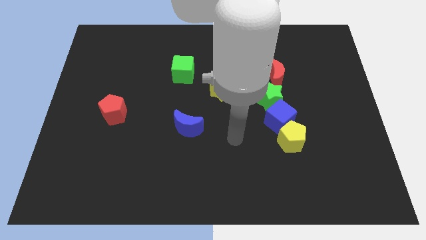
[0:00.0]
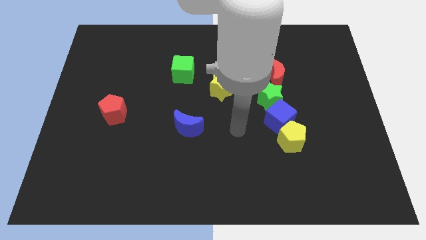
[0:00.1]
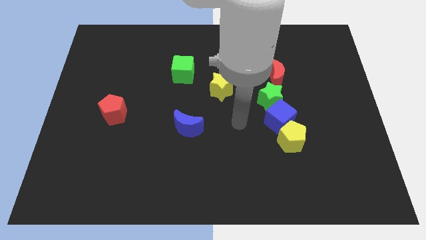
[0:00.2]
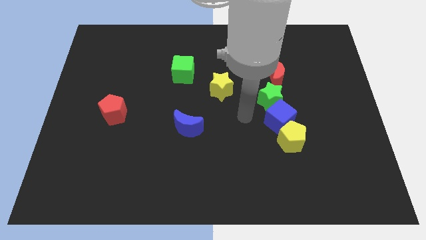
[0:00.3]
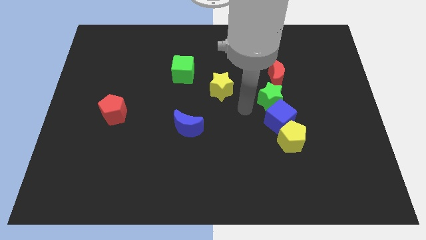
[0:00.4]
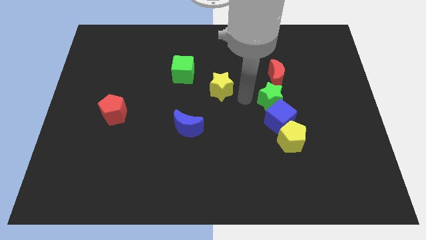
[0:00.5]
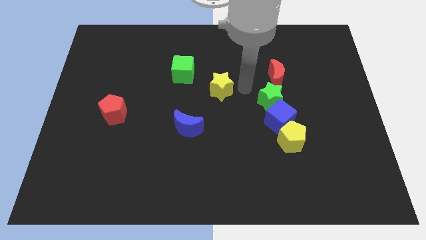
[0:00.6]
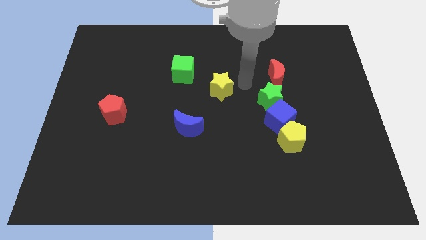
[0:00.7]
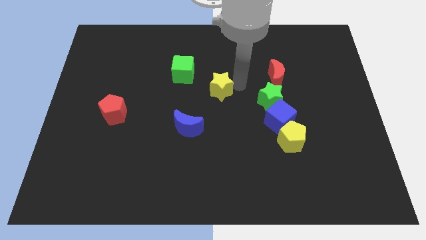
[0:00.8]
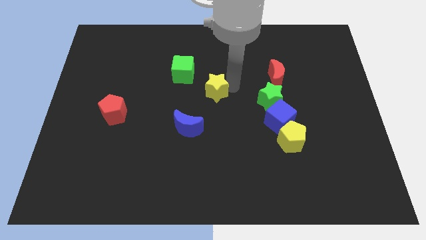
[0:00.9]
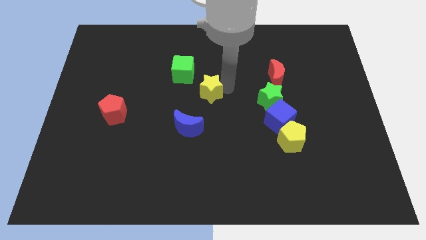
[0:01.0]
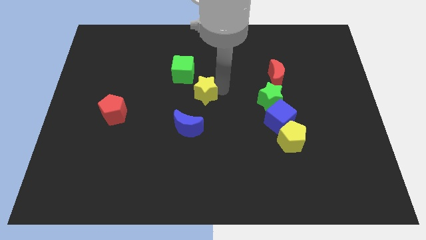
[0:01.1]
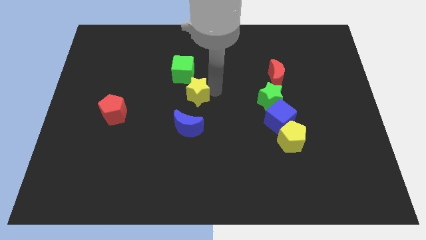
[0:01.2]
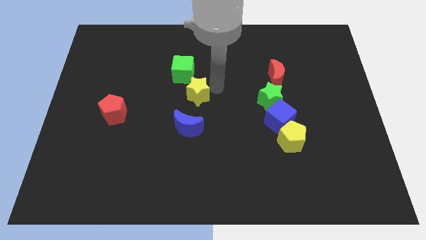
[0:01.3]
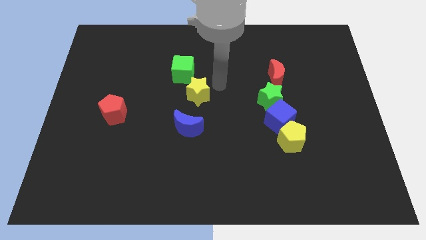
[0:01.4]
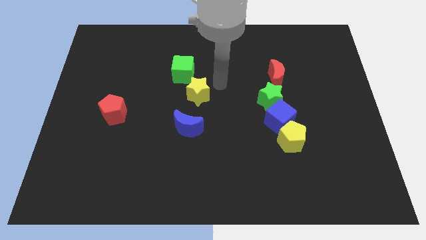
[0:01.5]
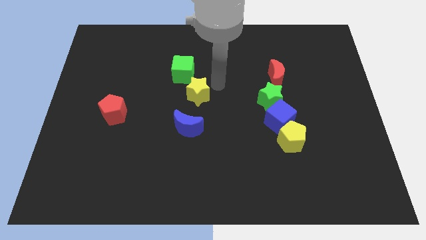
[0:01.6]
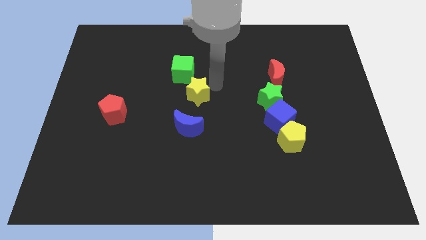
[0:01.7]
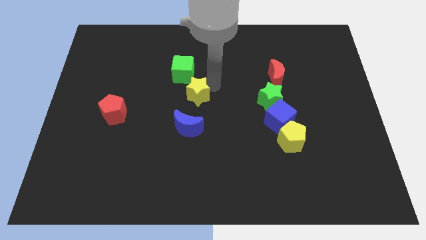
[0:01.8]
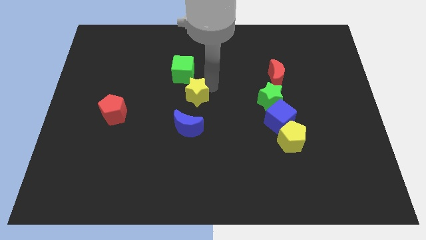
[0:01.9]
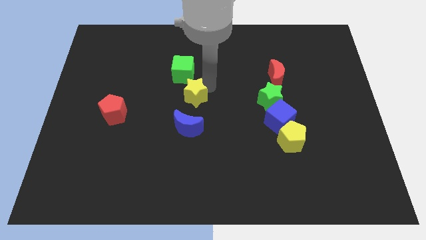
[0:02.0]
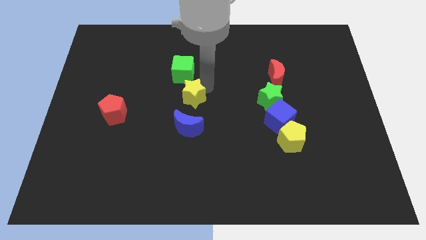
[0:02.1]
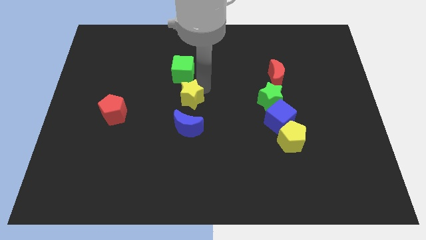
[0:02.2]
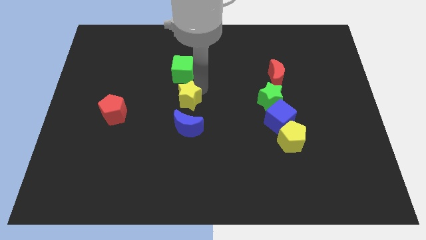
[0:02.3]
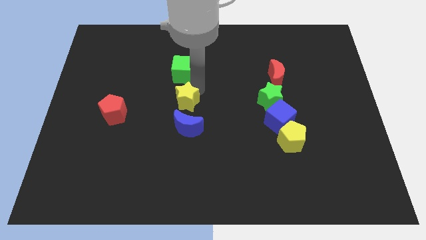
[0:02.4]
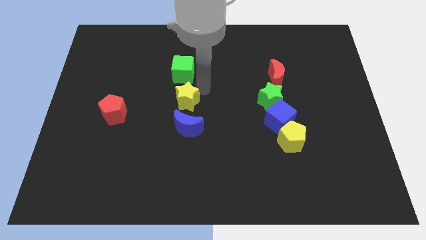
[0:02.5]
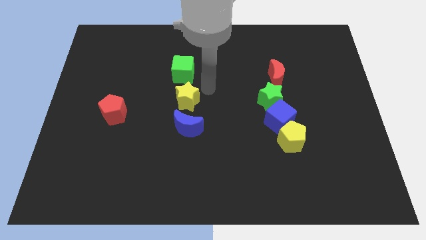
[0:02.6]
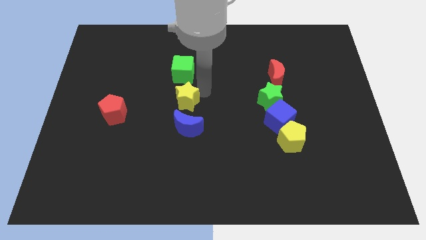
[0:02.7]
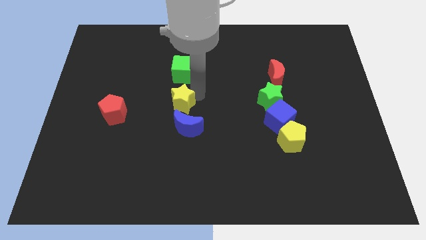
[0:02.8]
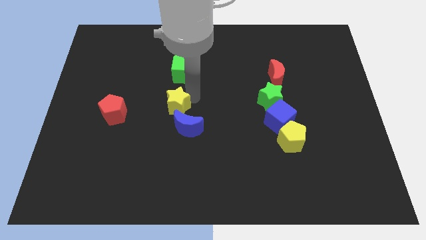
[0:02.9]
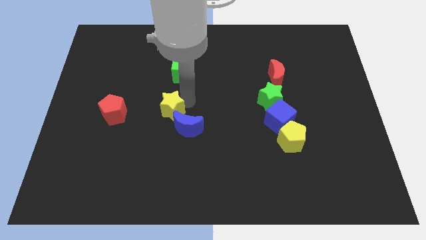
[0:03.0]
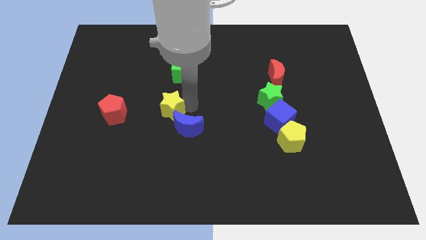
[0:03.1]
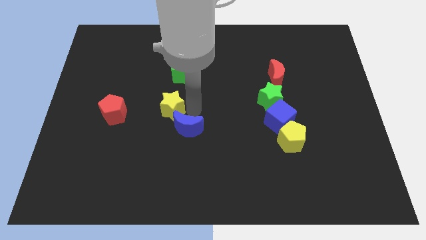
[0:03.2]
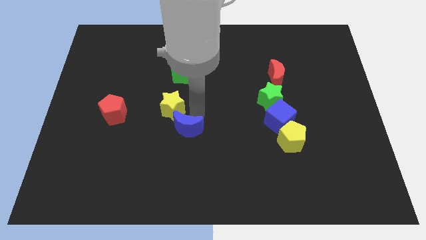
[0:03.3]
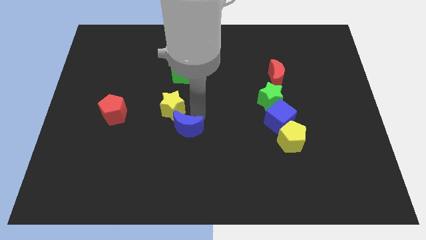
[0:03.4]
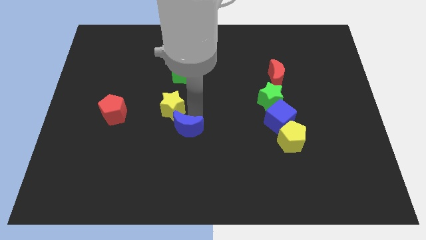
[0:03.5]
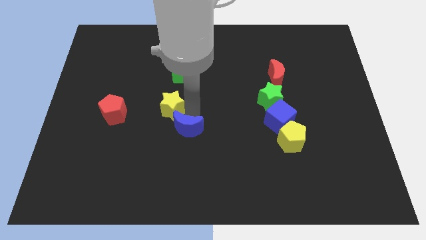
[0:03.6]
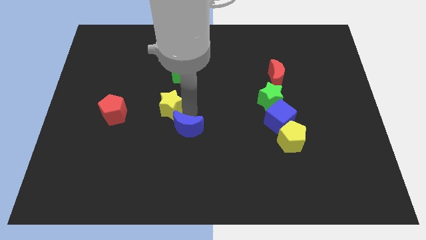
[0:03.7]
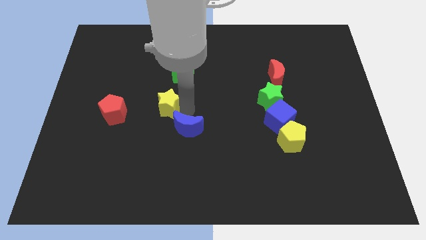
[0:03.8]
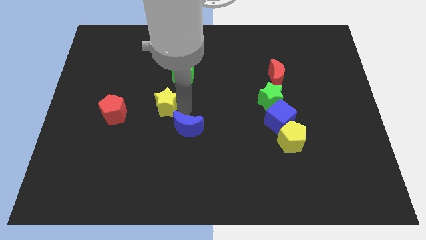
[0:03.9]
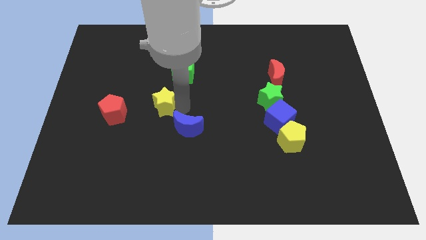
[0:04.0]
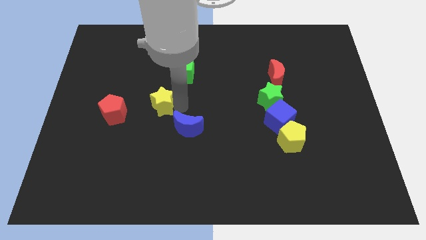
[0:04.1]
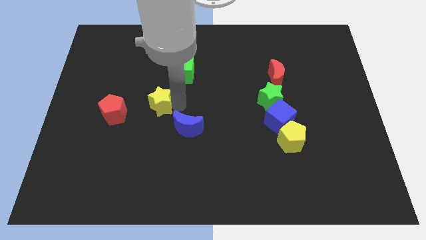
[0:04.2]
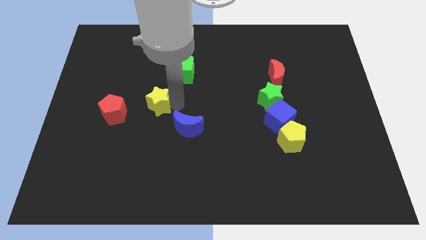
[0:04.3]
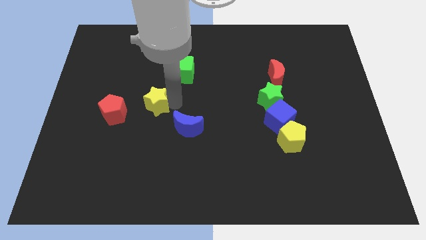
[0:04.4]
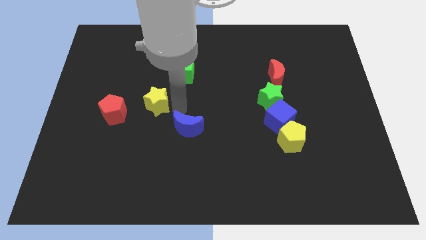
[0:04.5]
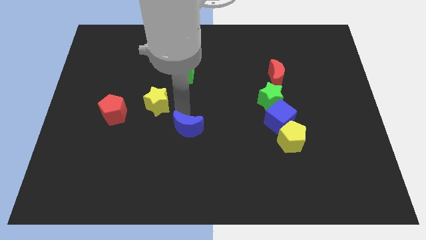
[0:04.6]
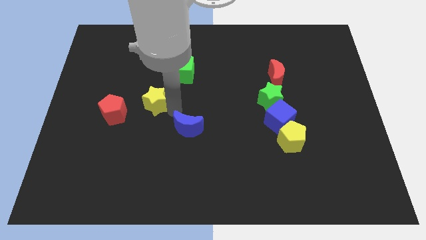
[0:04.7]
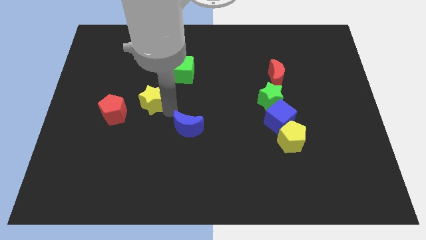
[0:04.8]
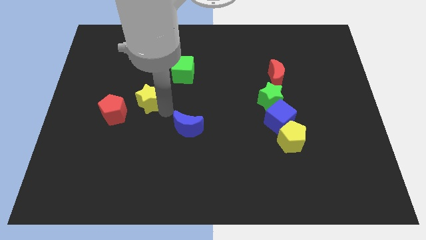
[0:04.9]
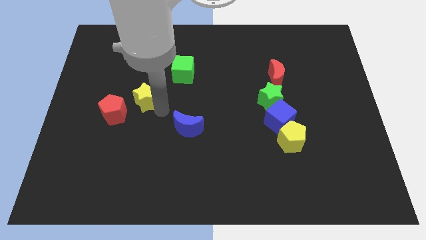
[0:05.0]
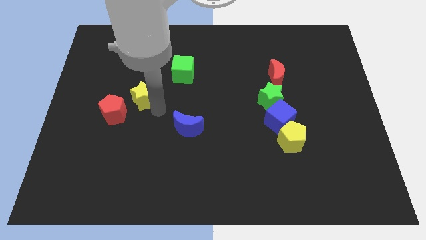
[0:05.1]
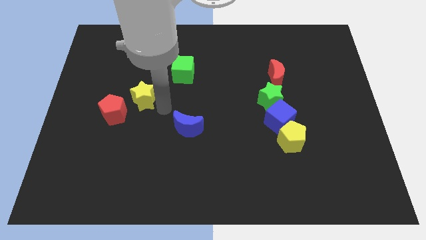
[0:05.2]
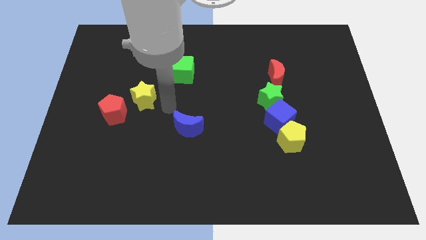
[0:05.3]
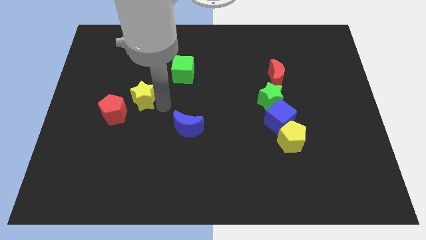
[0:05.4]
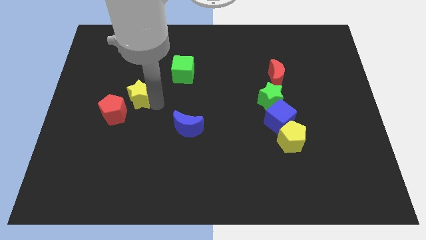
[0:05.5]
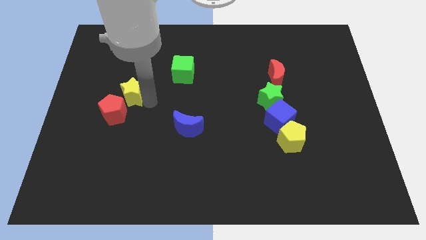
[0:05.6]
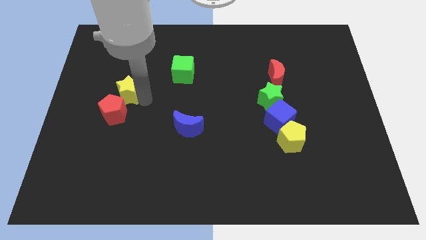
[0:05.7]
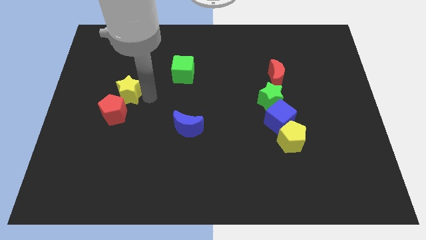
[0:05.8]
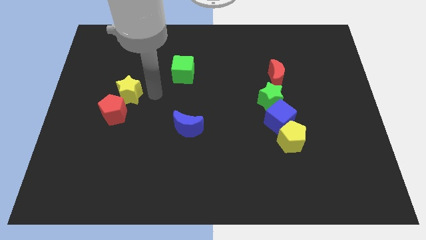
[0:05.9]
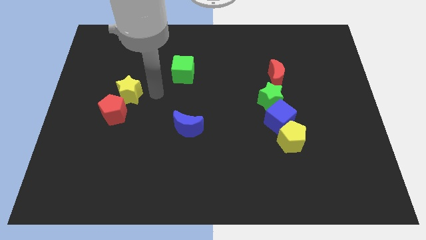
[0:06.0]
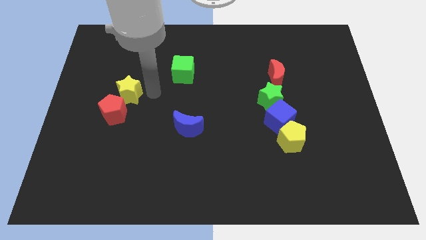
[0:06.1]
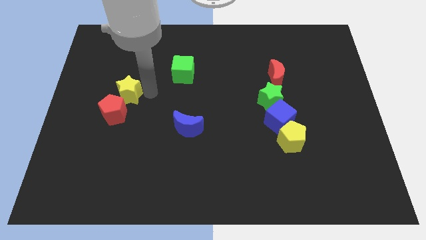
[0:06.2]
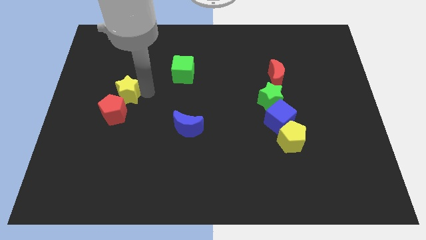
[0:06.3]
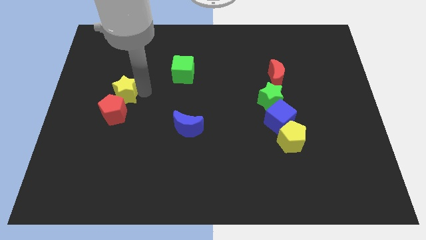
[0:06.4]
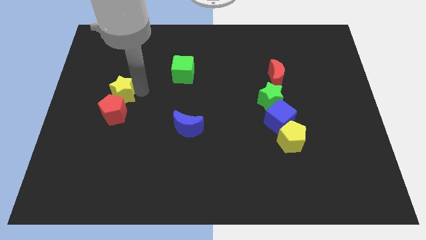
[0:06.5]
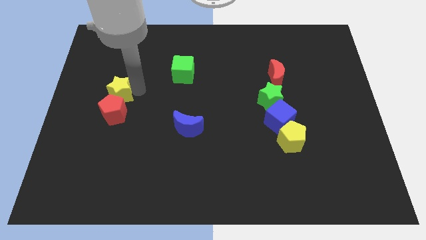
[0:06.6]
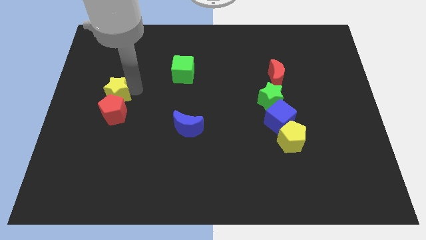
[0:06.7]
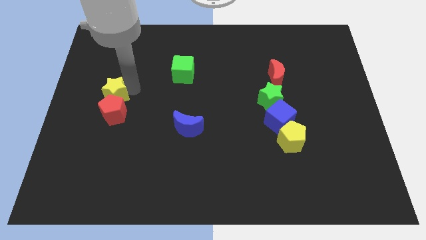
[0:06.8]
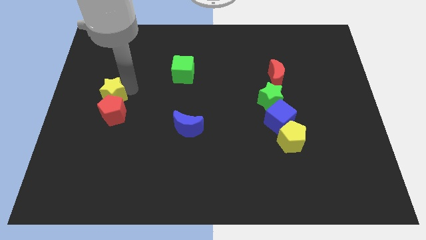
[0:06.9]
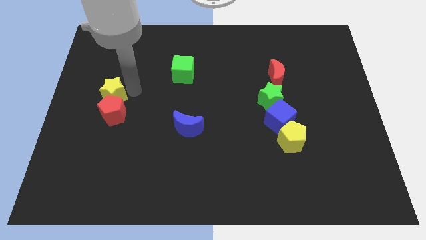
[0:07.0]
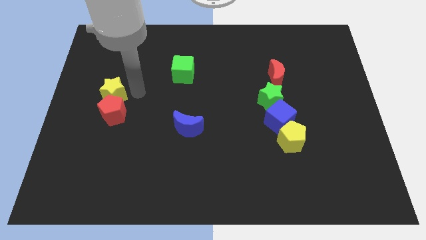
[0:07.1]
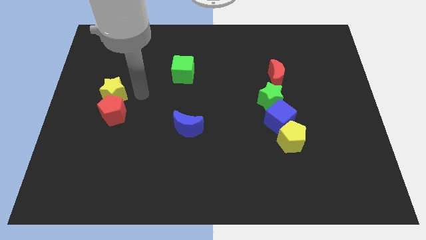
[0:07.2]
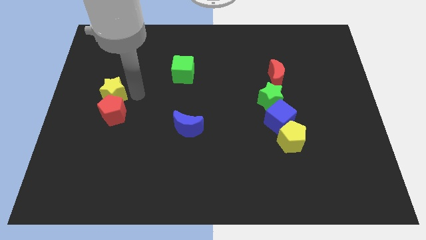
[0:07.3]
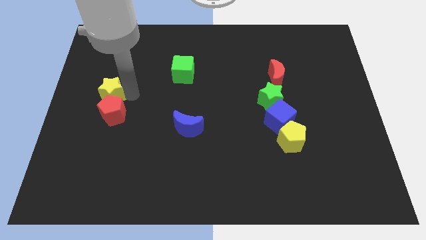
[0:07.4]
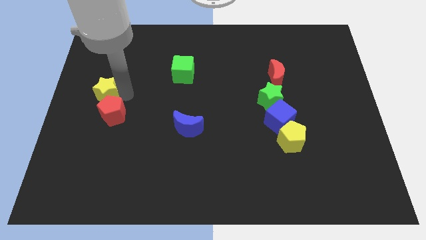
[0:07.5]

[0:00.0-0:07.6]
put the yellow star to the left side
